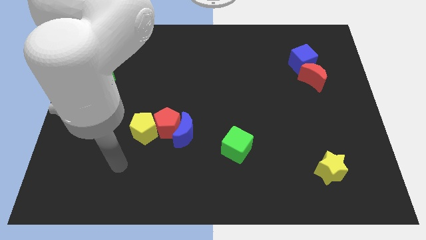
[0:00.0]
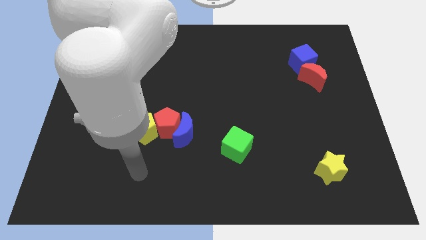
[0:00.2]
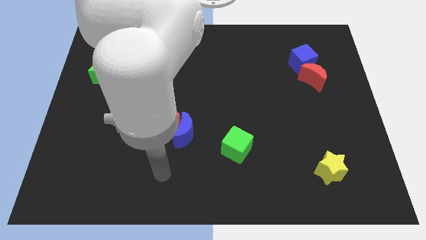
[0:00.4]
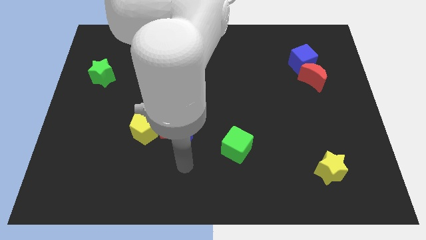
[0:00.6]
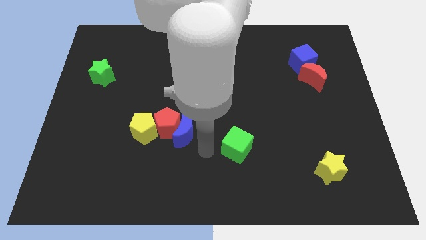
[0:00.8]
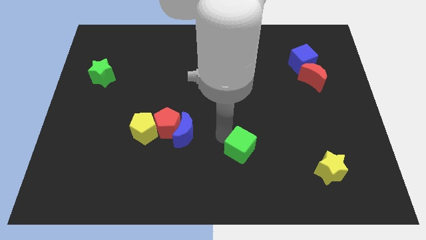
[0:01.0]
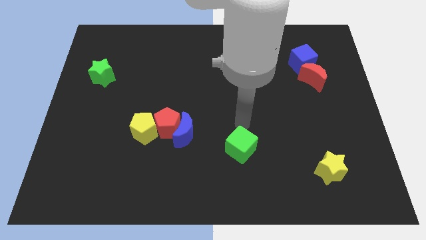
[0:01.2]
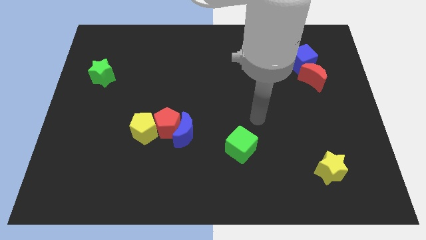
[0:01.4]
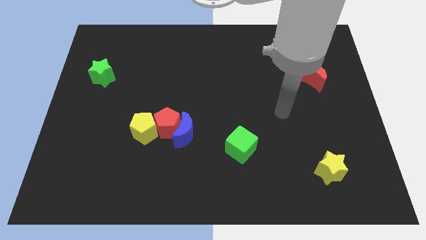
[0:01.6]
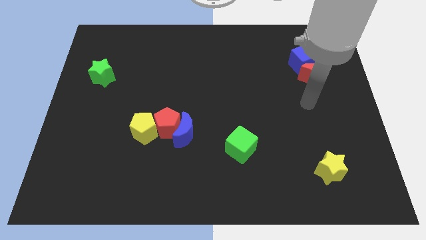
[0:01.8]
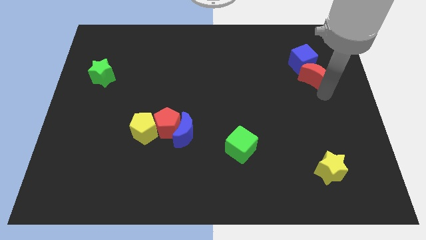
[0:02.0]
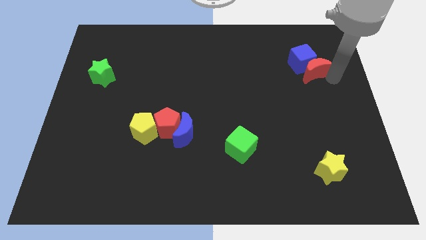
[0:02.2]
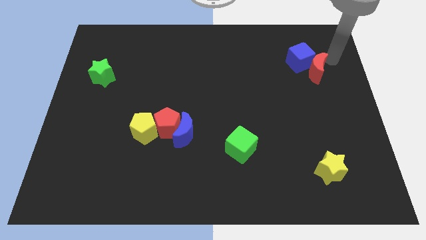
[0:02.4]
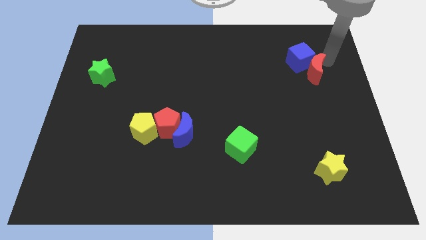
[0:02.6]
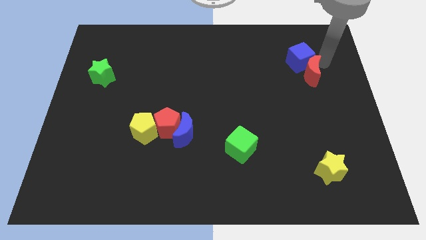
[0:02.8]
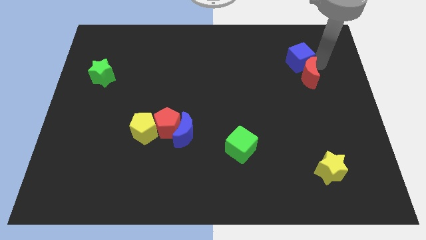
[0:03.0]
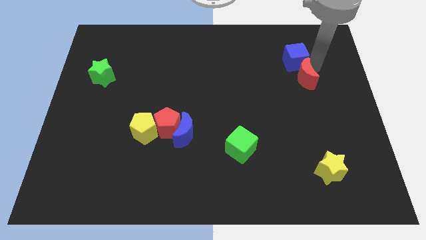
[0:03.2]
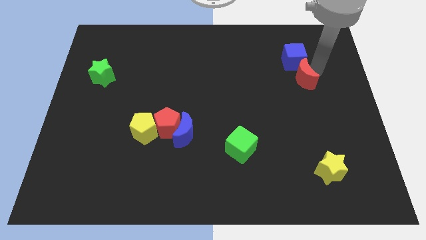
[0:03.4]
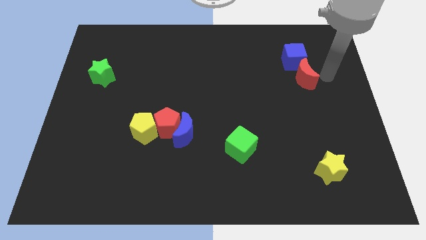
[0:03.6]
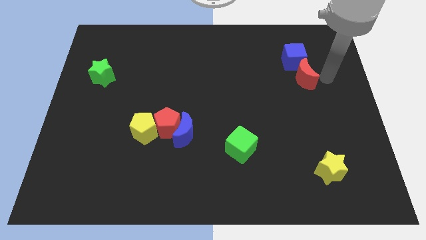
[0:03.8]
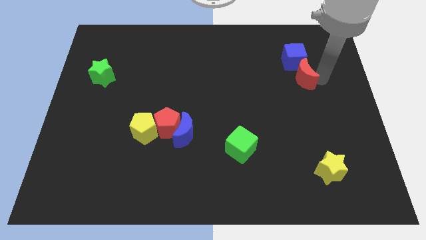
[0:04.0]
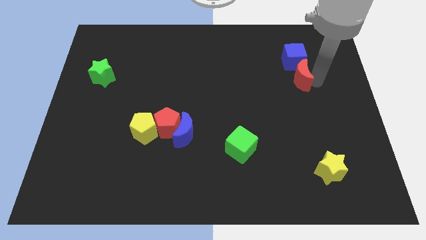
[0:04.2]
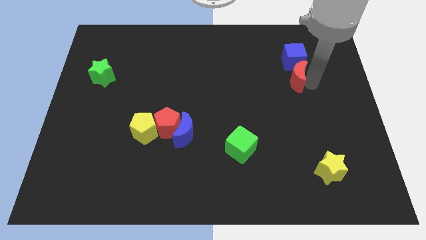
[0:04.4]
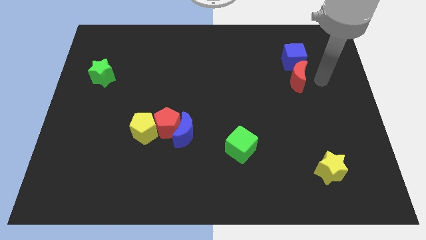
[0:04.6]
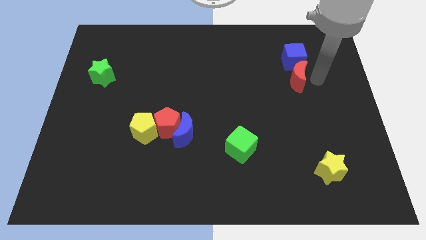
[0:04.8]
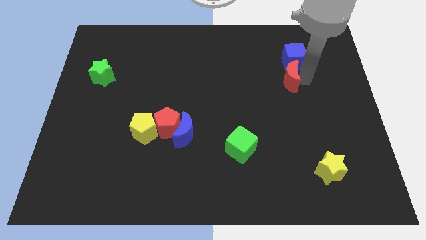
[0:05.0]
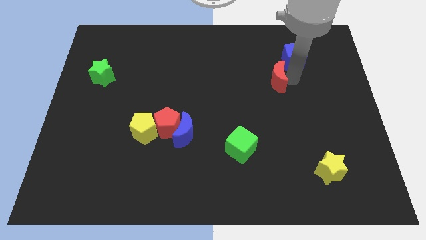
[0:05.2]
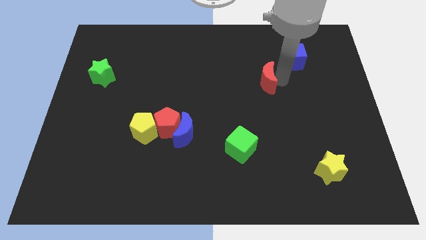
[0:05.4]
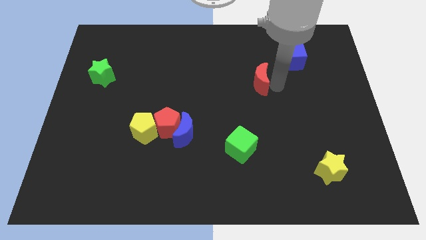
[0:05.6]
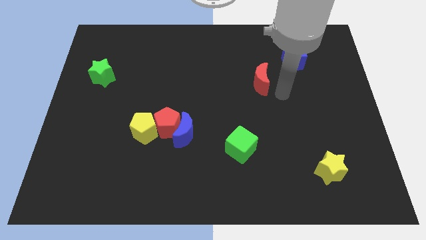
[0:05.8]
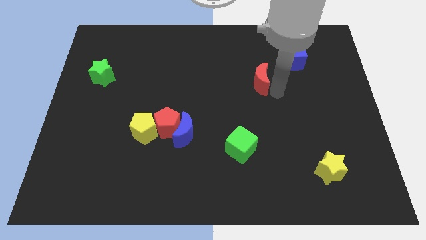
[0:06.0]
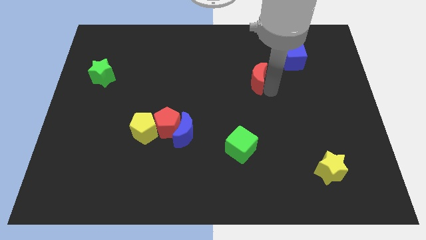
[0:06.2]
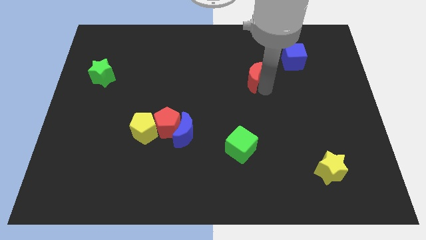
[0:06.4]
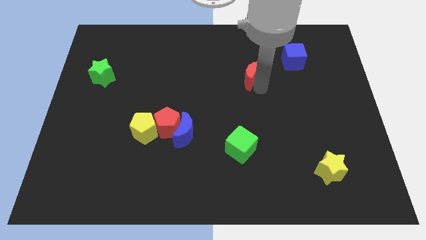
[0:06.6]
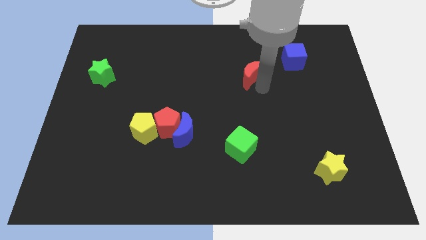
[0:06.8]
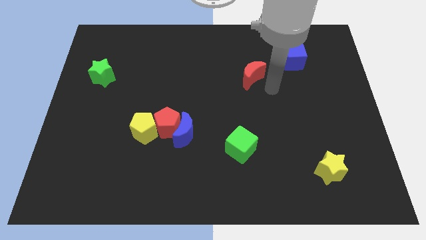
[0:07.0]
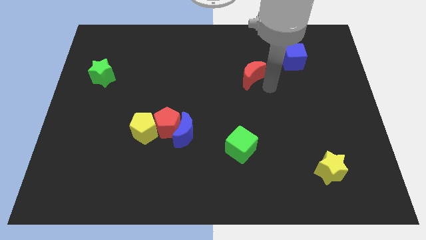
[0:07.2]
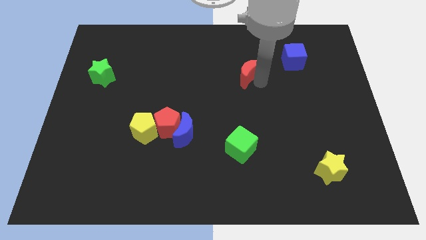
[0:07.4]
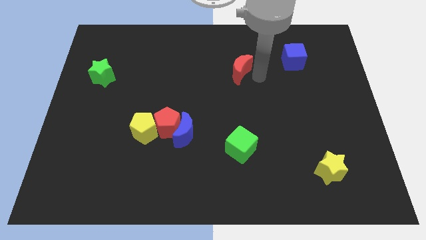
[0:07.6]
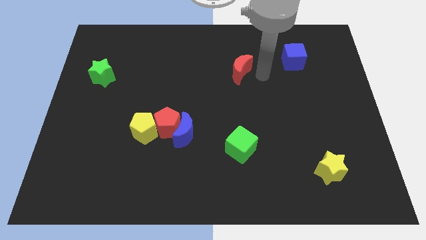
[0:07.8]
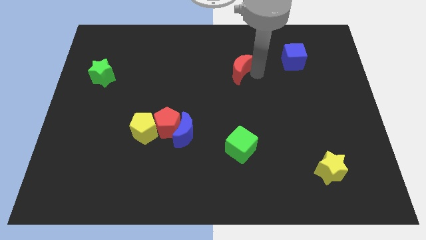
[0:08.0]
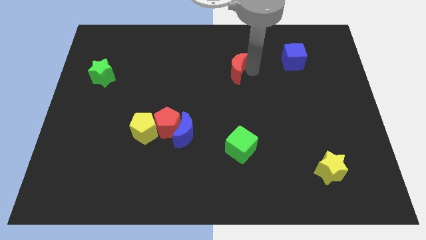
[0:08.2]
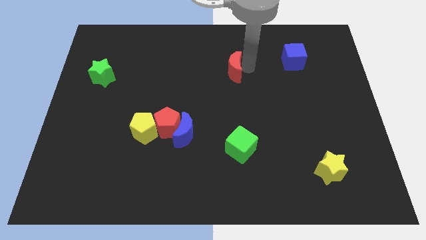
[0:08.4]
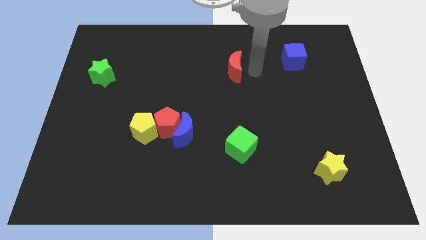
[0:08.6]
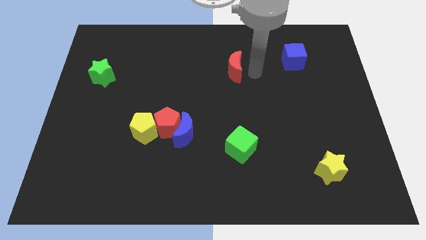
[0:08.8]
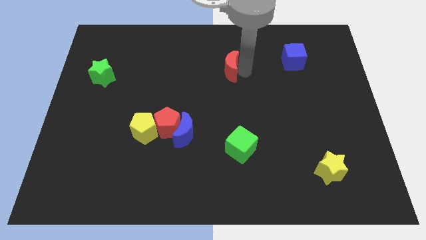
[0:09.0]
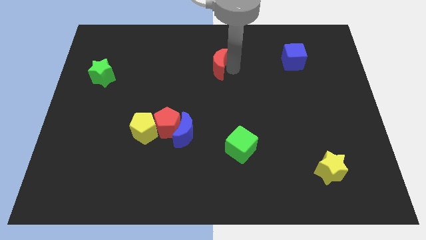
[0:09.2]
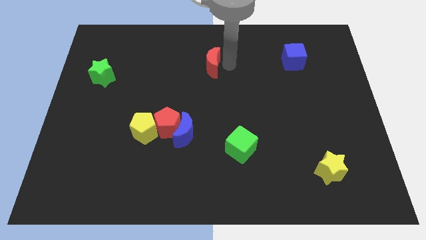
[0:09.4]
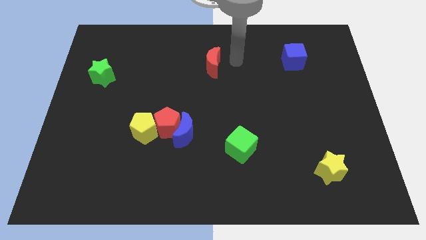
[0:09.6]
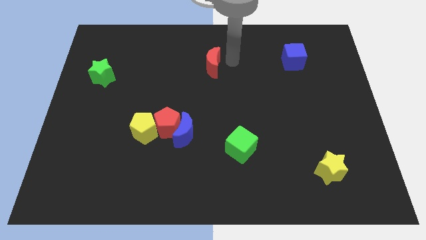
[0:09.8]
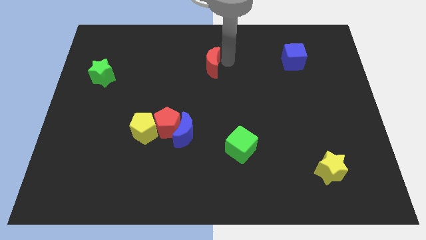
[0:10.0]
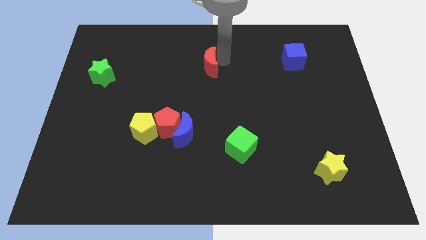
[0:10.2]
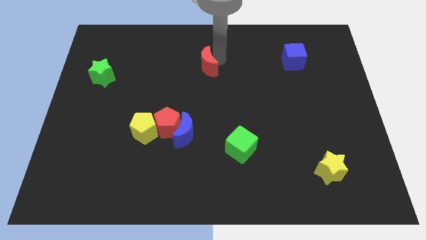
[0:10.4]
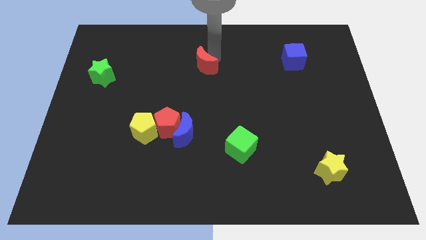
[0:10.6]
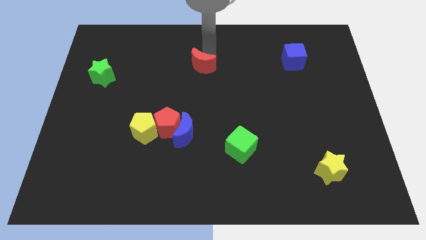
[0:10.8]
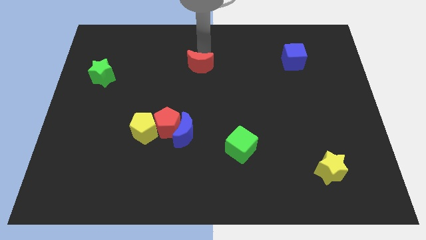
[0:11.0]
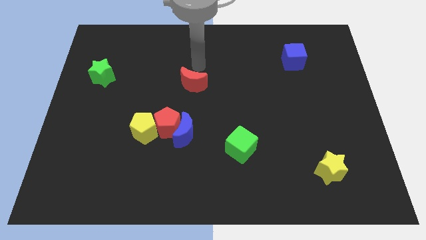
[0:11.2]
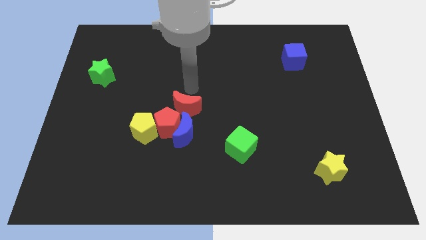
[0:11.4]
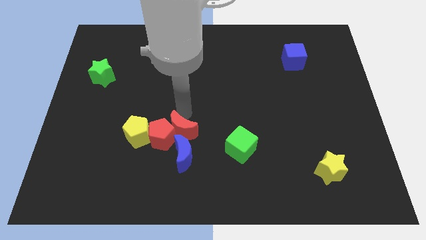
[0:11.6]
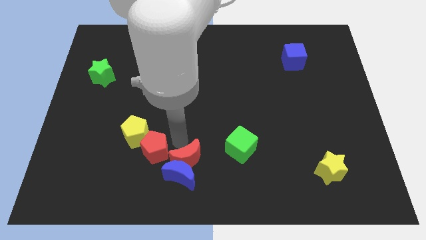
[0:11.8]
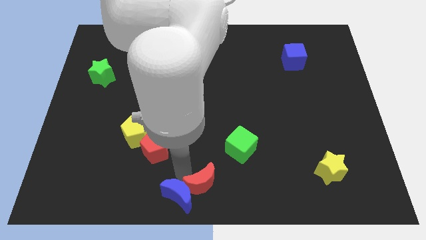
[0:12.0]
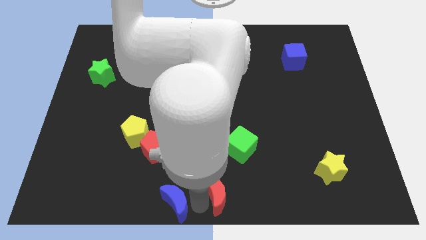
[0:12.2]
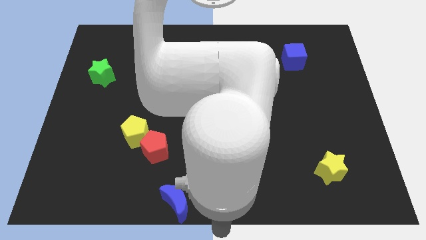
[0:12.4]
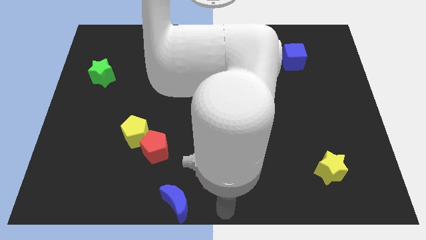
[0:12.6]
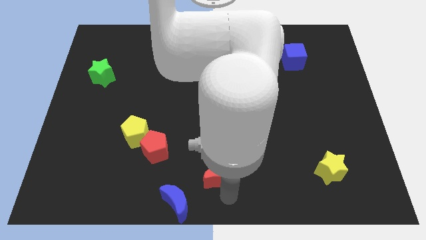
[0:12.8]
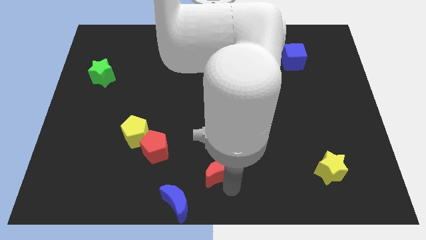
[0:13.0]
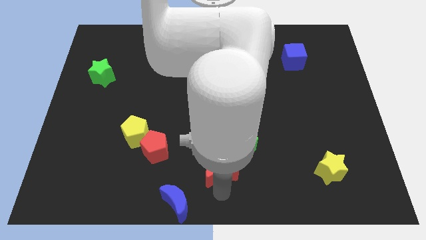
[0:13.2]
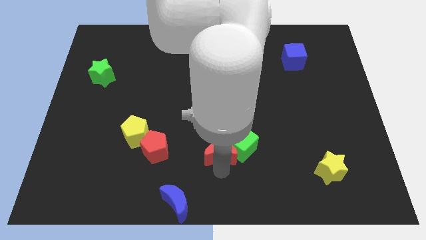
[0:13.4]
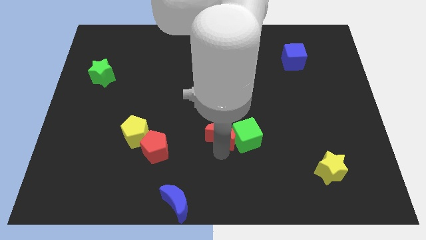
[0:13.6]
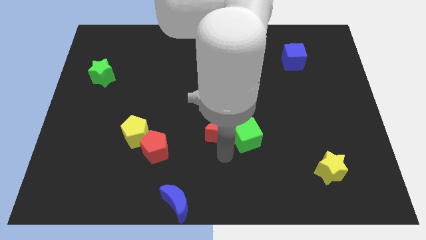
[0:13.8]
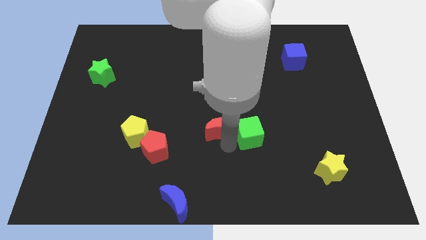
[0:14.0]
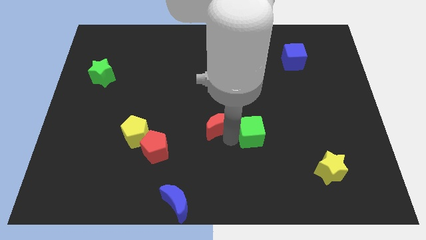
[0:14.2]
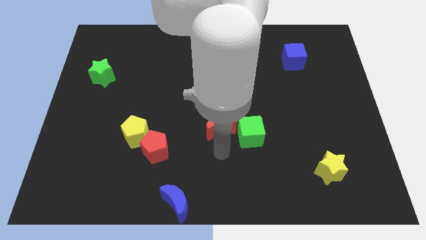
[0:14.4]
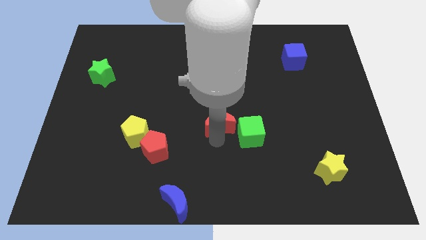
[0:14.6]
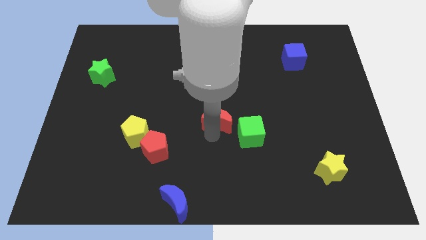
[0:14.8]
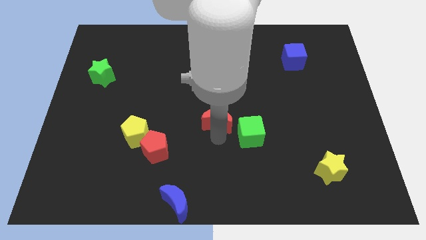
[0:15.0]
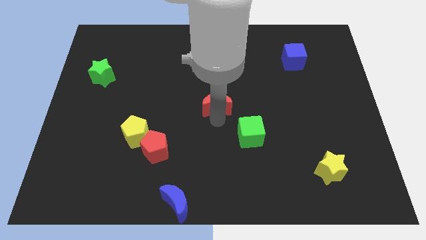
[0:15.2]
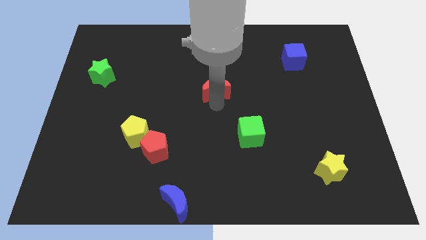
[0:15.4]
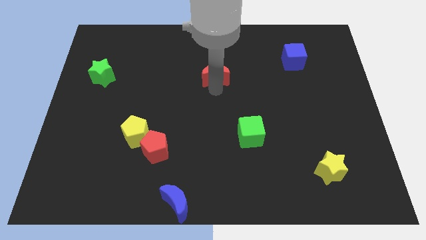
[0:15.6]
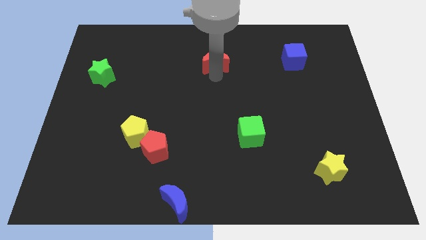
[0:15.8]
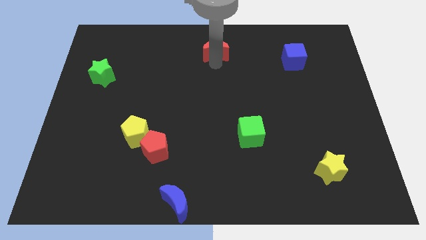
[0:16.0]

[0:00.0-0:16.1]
move the red moon to the top
